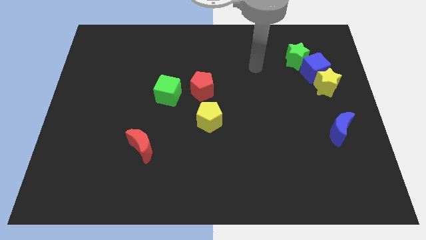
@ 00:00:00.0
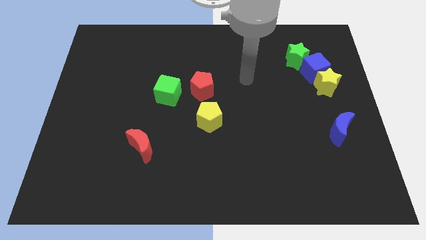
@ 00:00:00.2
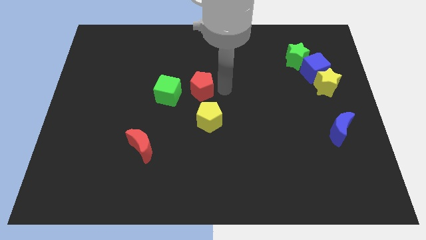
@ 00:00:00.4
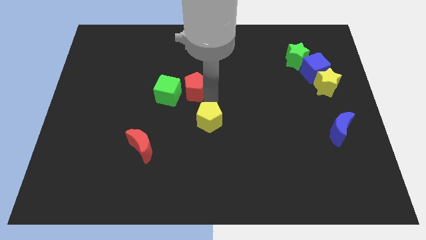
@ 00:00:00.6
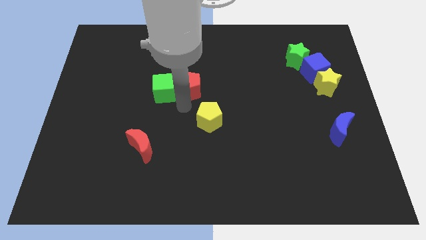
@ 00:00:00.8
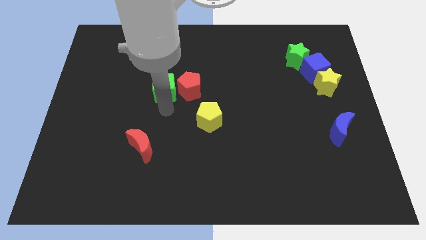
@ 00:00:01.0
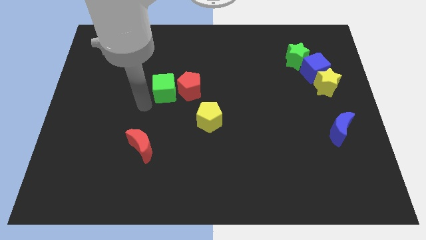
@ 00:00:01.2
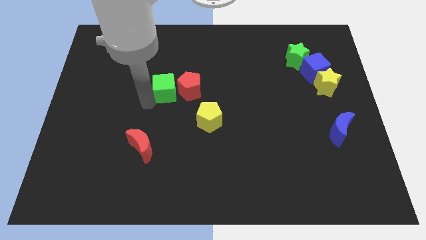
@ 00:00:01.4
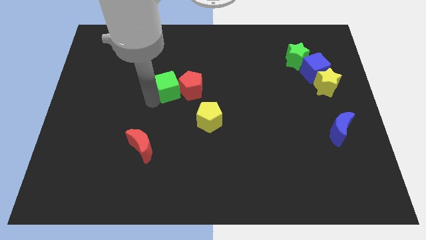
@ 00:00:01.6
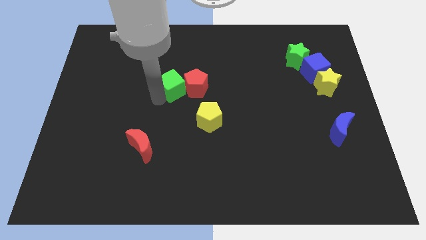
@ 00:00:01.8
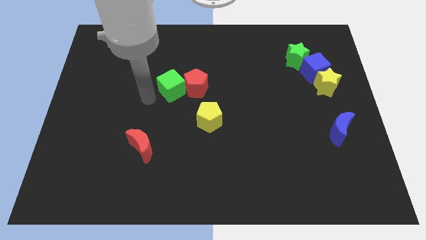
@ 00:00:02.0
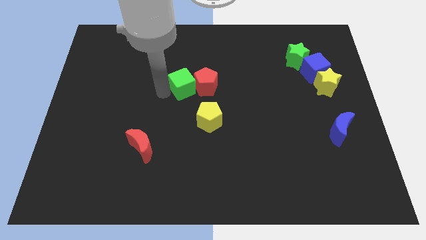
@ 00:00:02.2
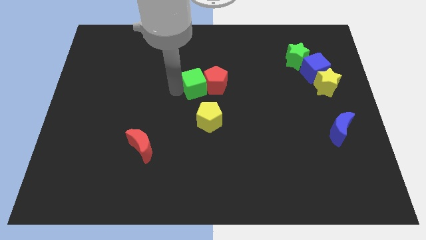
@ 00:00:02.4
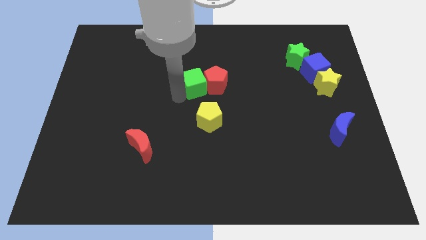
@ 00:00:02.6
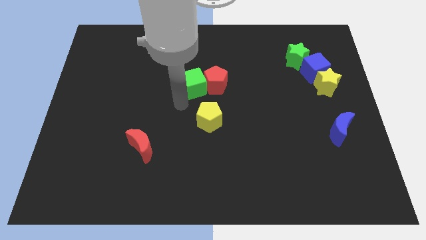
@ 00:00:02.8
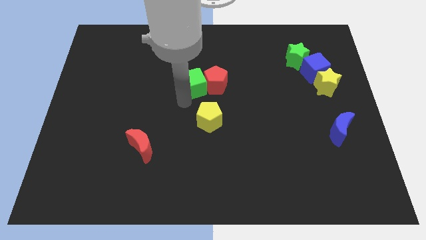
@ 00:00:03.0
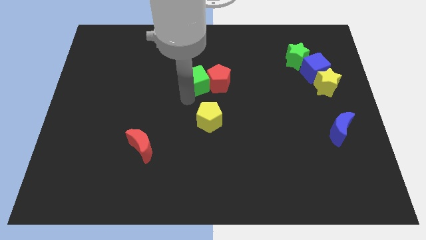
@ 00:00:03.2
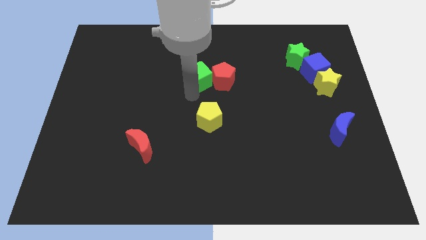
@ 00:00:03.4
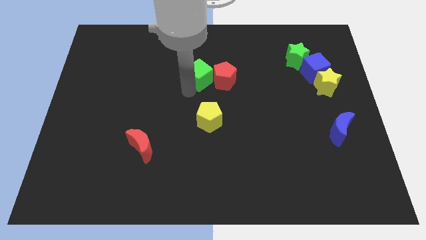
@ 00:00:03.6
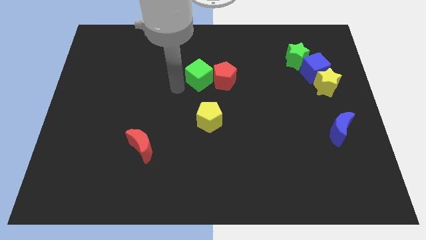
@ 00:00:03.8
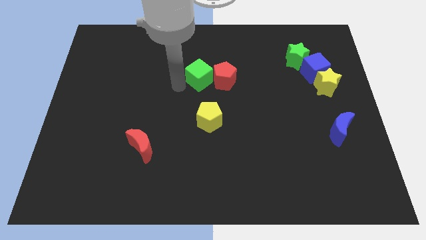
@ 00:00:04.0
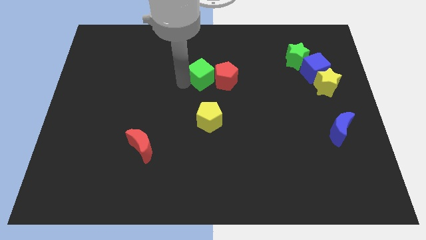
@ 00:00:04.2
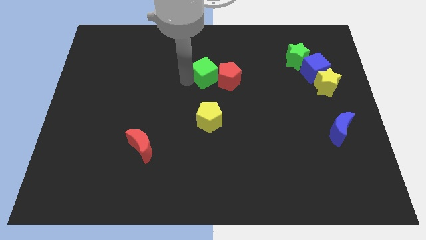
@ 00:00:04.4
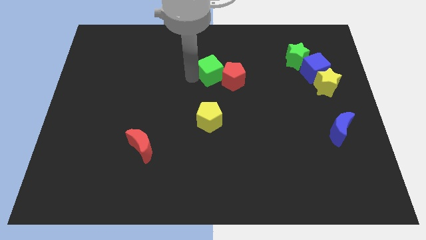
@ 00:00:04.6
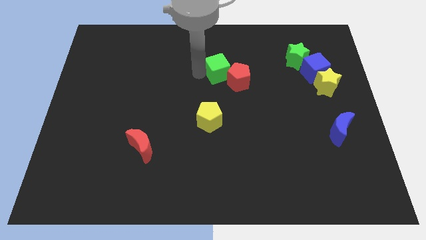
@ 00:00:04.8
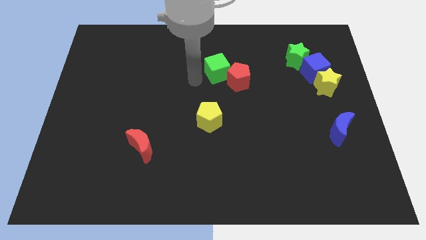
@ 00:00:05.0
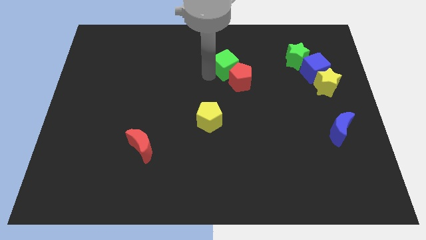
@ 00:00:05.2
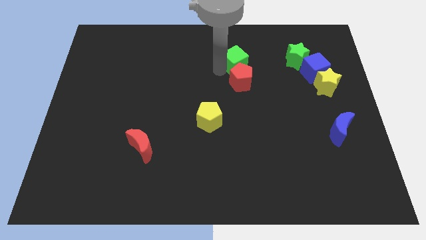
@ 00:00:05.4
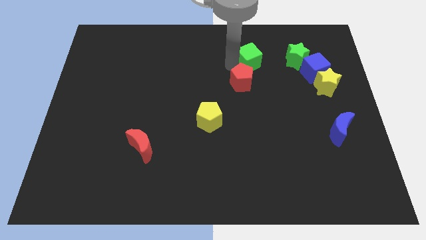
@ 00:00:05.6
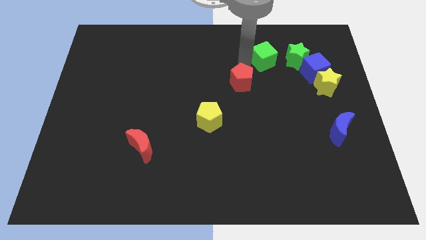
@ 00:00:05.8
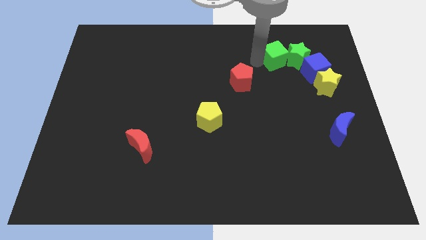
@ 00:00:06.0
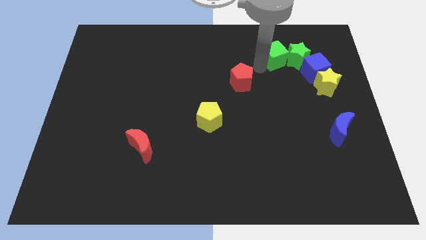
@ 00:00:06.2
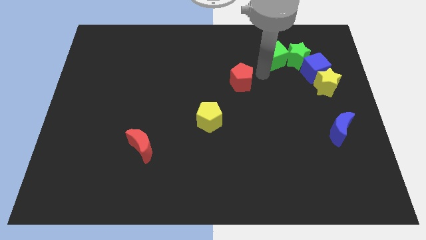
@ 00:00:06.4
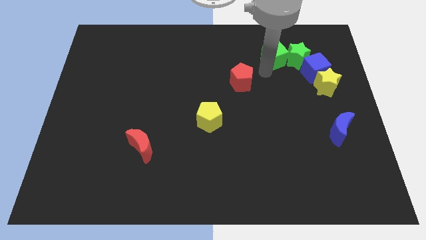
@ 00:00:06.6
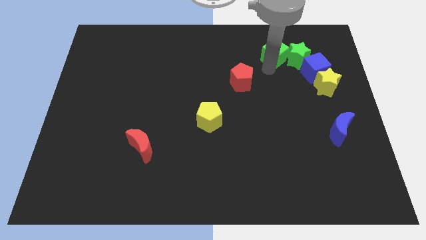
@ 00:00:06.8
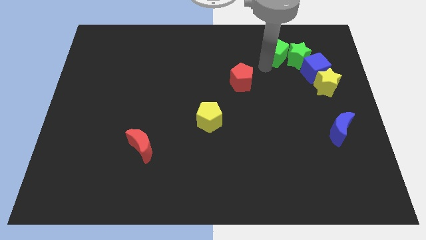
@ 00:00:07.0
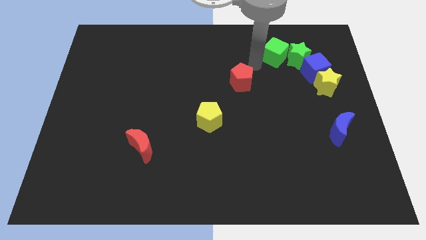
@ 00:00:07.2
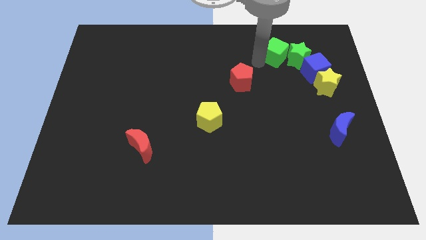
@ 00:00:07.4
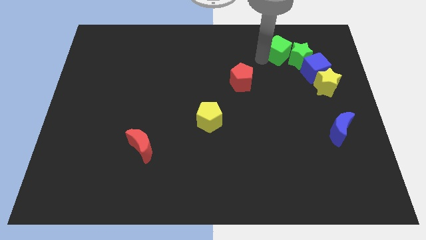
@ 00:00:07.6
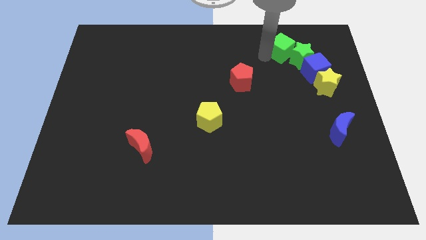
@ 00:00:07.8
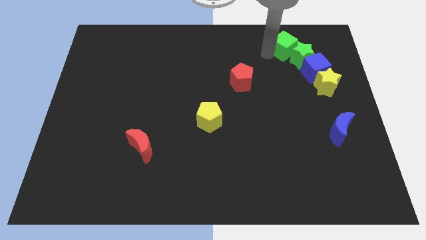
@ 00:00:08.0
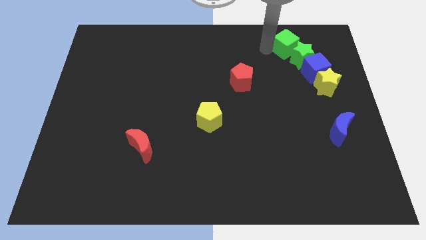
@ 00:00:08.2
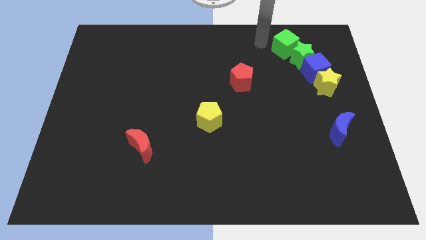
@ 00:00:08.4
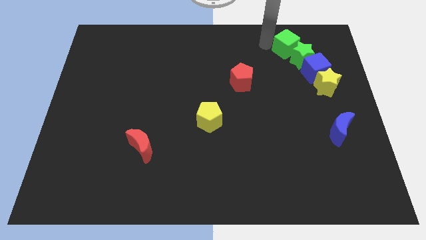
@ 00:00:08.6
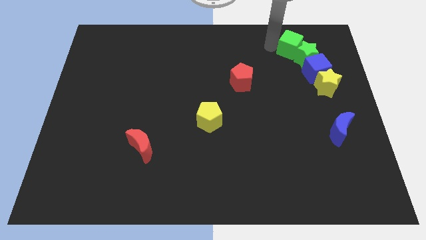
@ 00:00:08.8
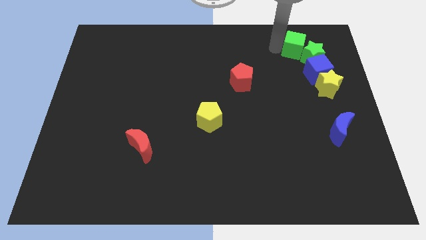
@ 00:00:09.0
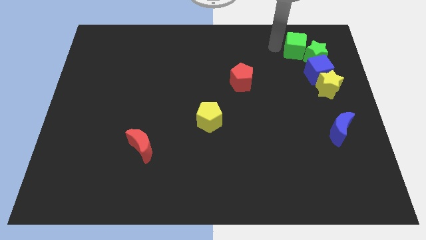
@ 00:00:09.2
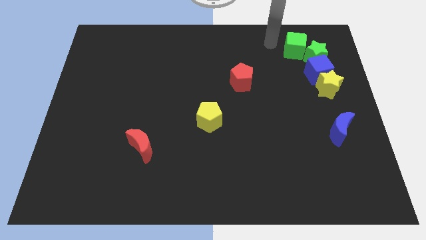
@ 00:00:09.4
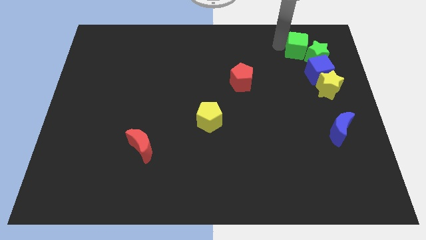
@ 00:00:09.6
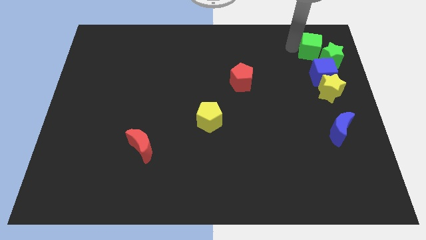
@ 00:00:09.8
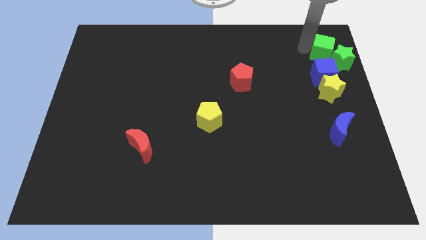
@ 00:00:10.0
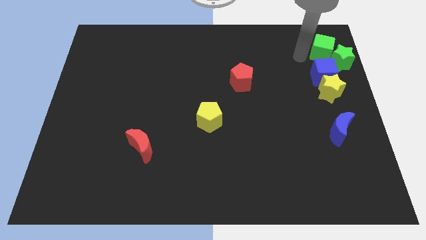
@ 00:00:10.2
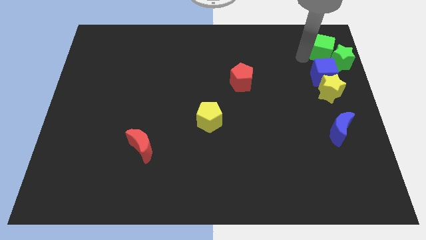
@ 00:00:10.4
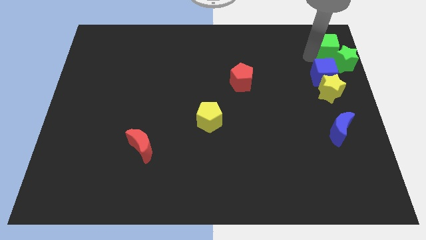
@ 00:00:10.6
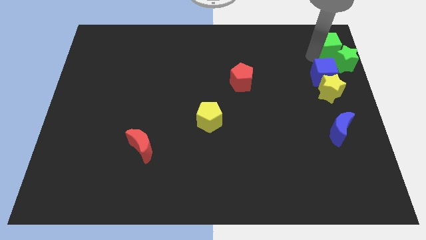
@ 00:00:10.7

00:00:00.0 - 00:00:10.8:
slide the green cube to the top right corner

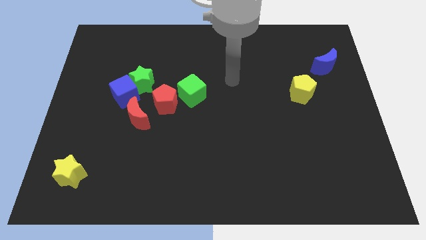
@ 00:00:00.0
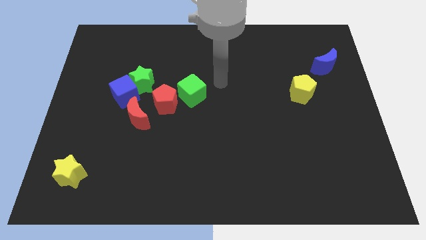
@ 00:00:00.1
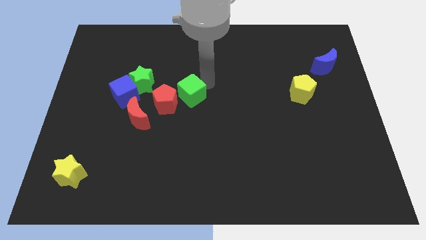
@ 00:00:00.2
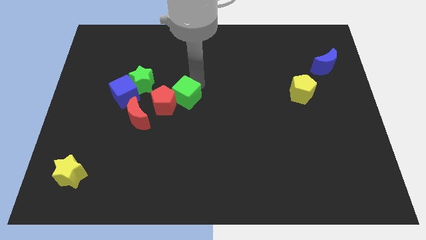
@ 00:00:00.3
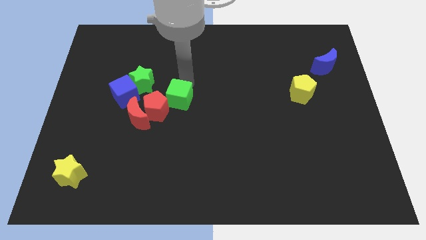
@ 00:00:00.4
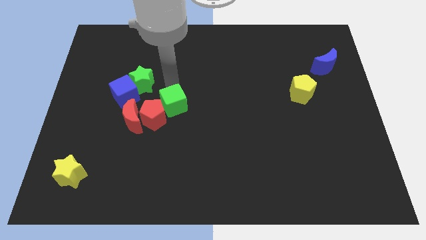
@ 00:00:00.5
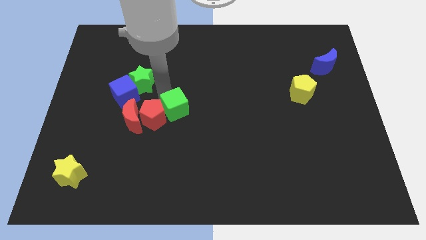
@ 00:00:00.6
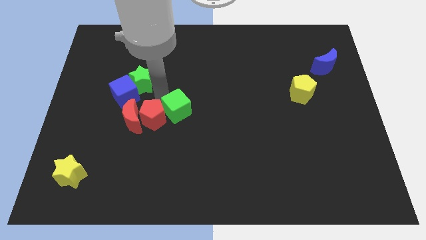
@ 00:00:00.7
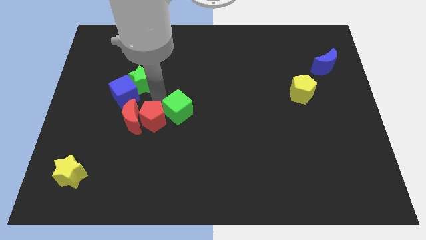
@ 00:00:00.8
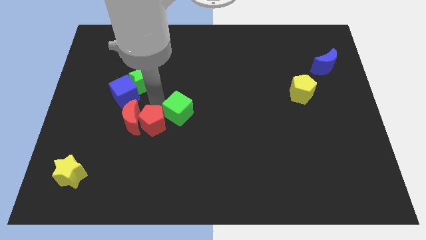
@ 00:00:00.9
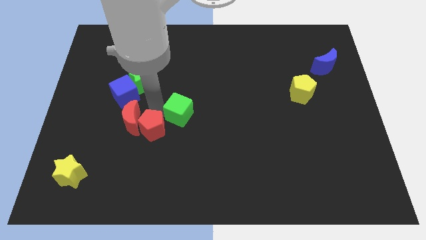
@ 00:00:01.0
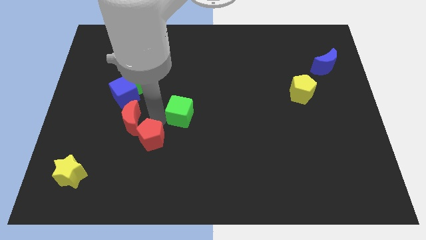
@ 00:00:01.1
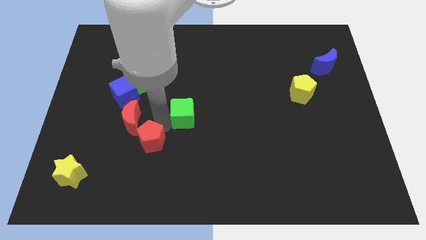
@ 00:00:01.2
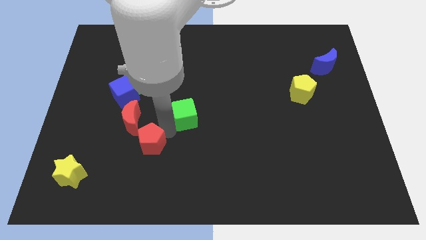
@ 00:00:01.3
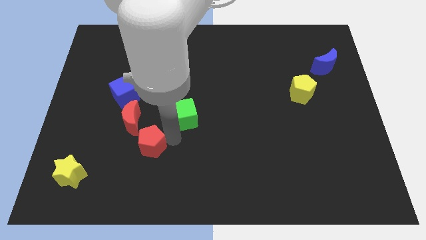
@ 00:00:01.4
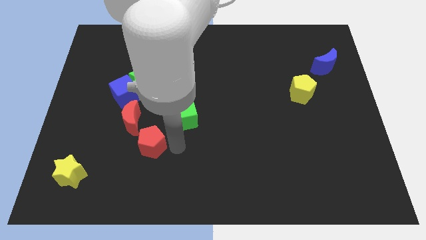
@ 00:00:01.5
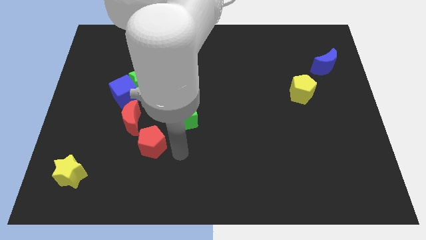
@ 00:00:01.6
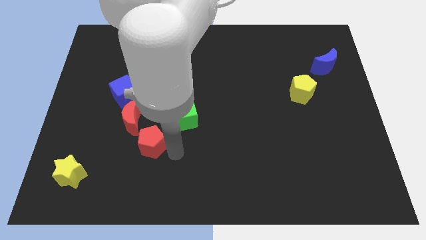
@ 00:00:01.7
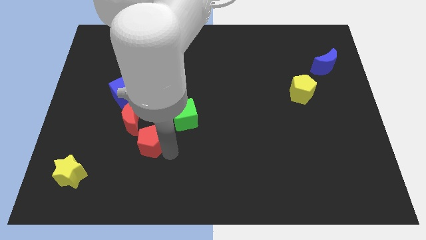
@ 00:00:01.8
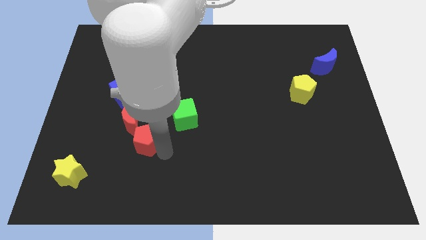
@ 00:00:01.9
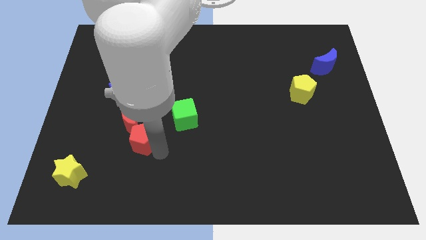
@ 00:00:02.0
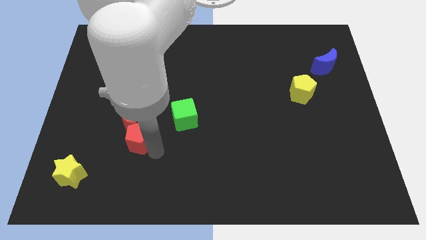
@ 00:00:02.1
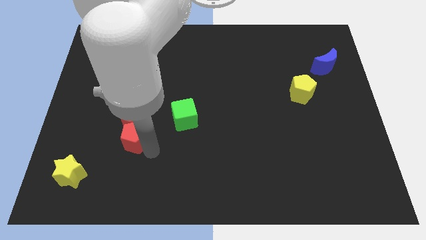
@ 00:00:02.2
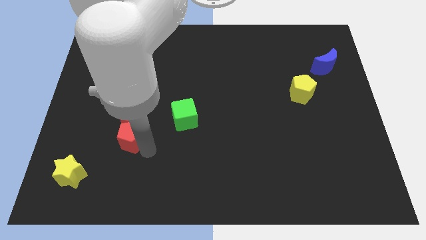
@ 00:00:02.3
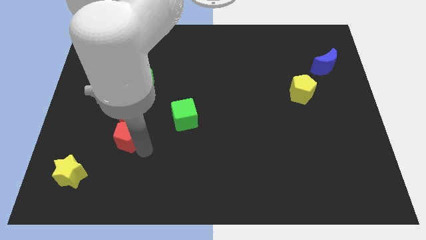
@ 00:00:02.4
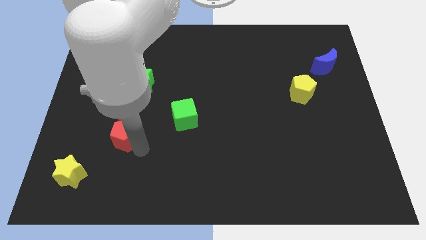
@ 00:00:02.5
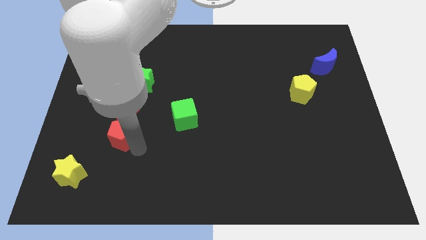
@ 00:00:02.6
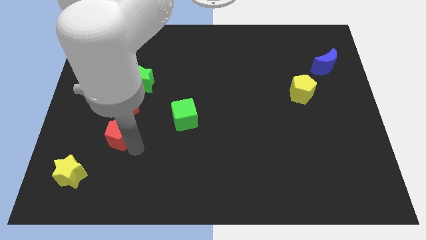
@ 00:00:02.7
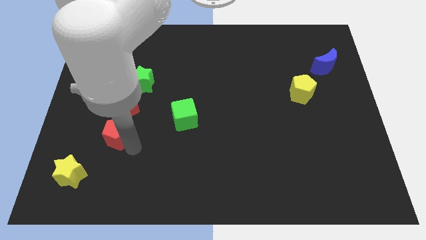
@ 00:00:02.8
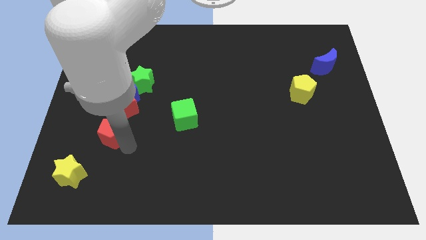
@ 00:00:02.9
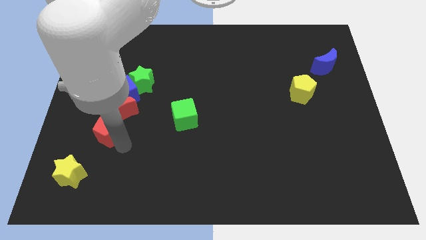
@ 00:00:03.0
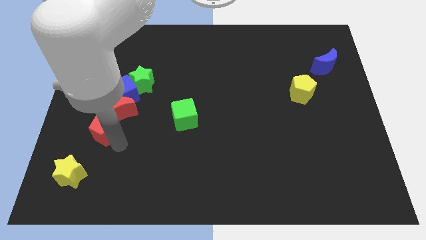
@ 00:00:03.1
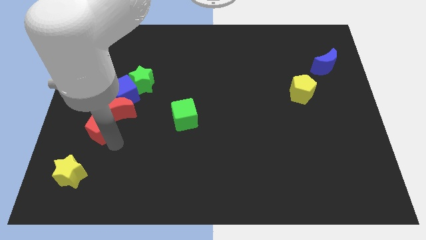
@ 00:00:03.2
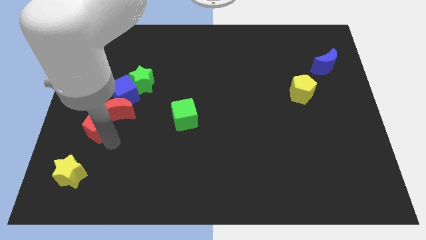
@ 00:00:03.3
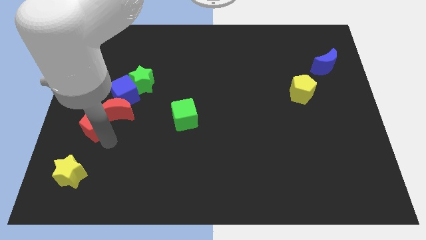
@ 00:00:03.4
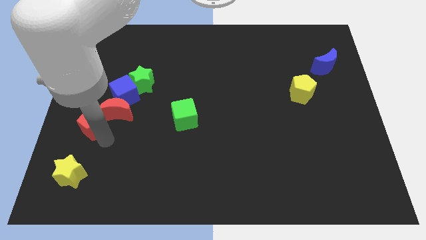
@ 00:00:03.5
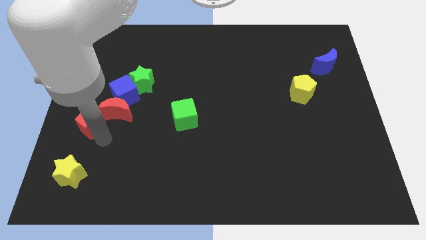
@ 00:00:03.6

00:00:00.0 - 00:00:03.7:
move the red pentagon to the left side of the board
